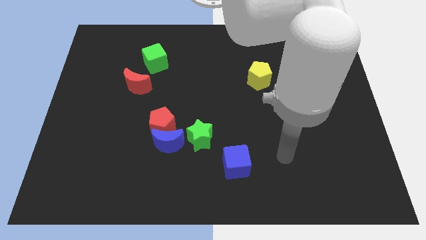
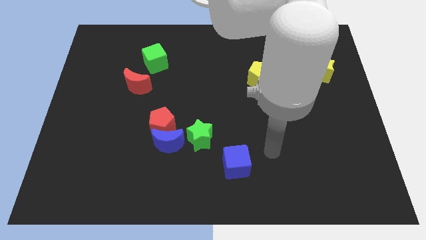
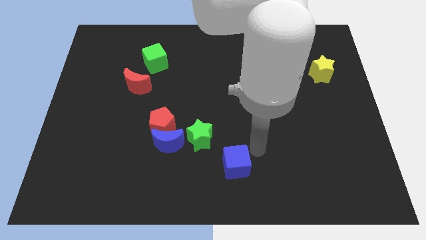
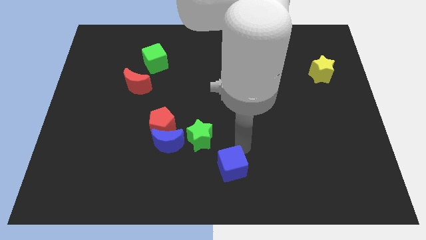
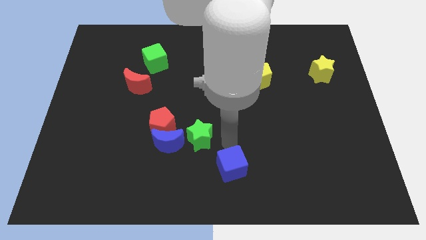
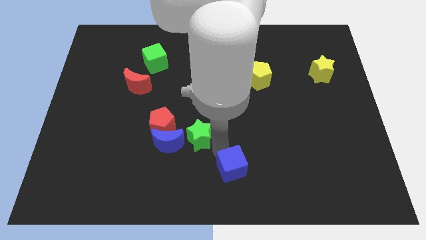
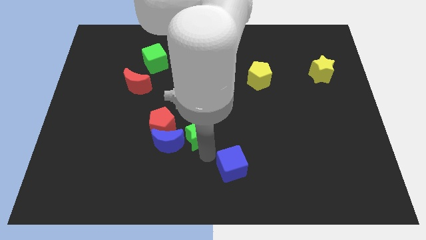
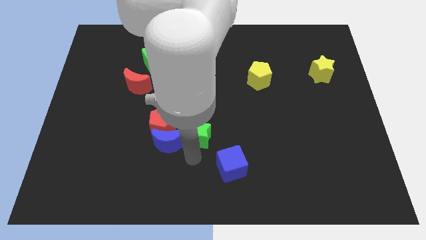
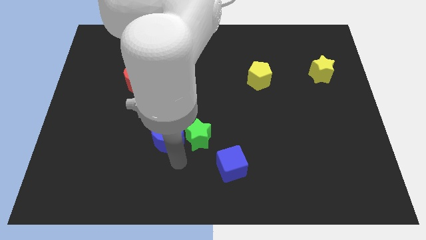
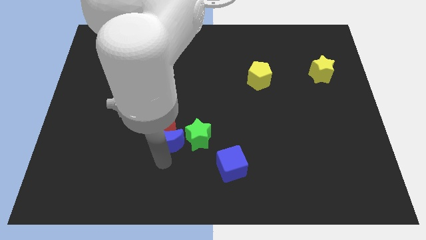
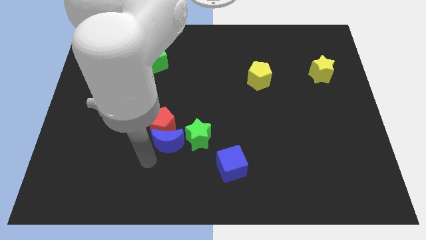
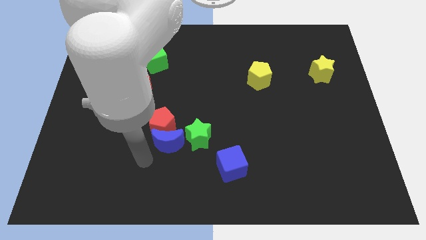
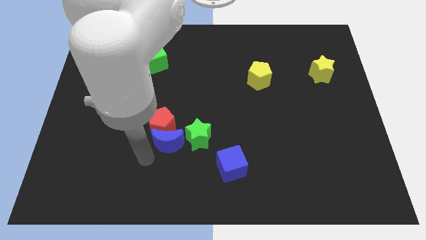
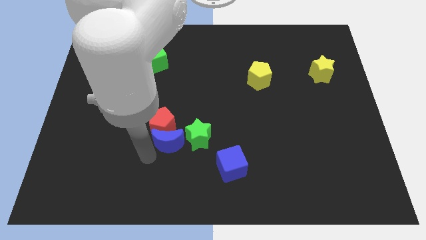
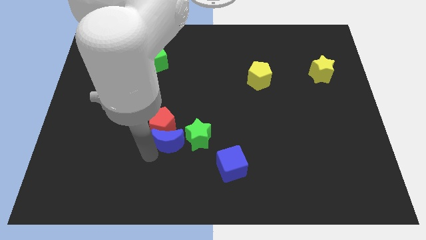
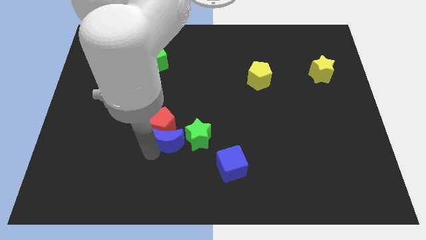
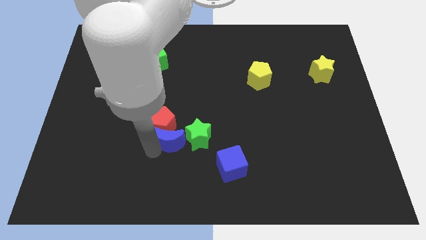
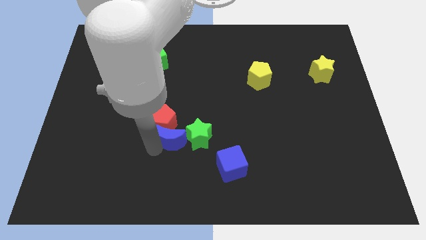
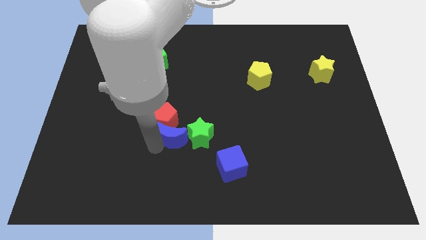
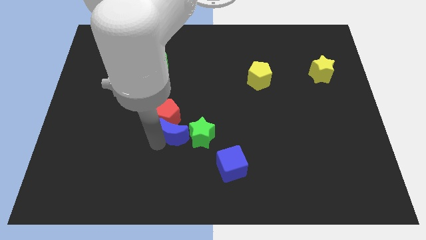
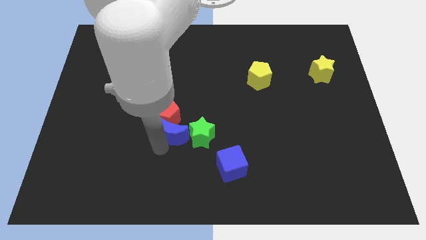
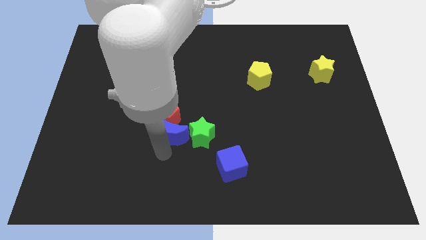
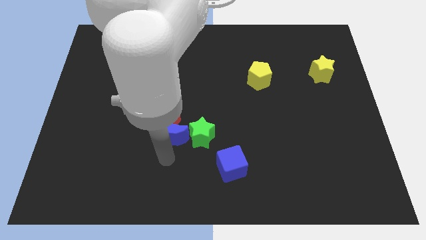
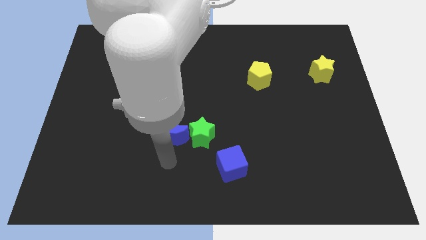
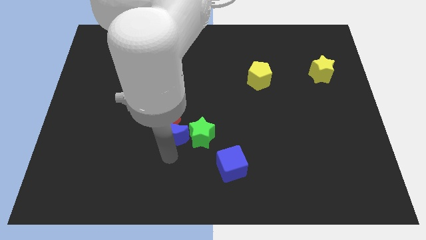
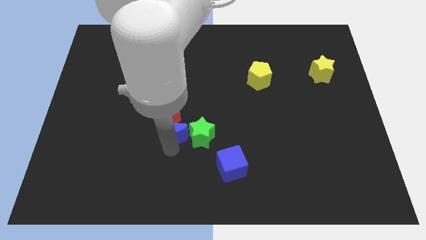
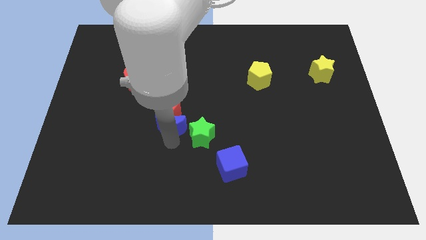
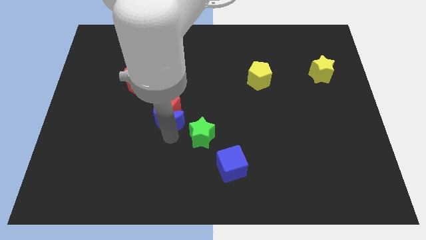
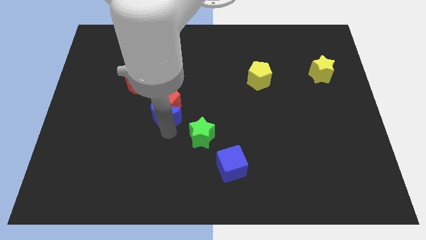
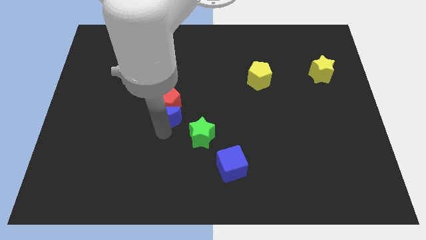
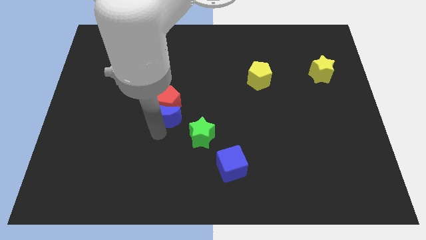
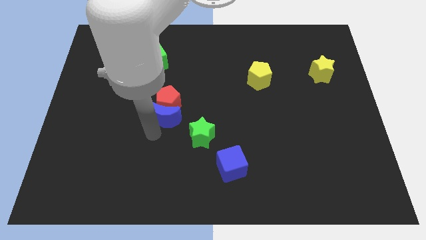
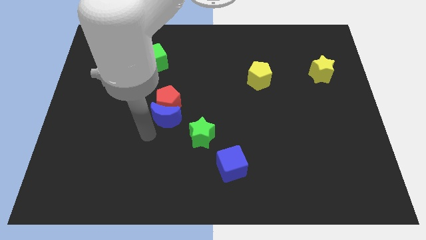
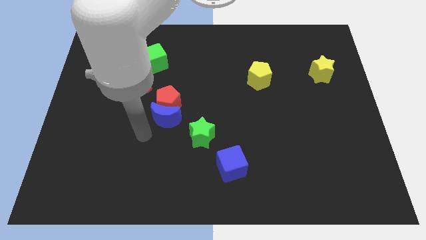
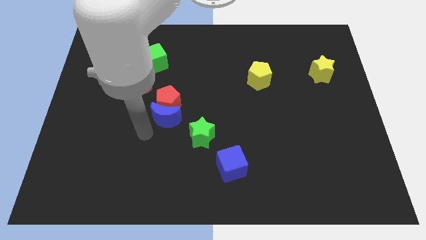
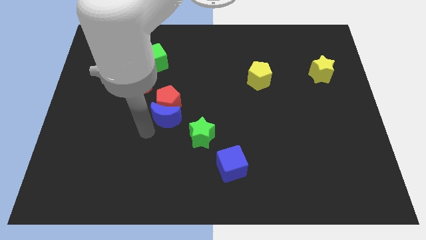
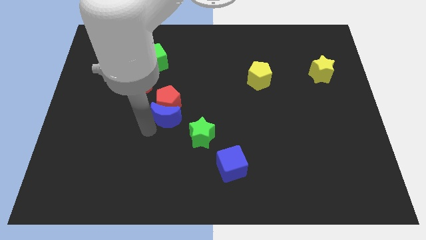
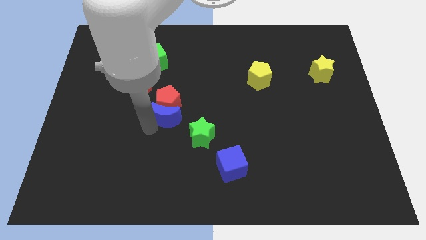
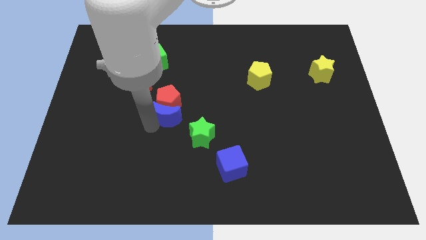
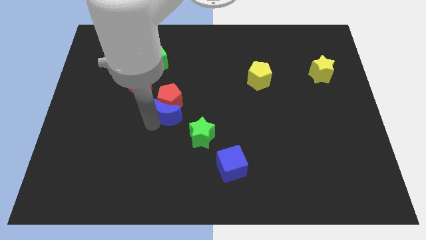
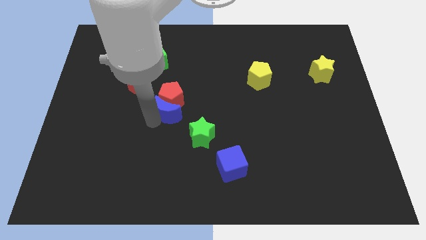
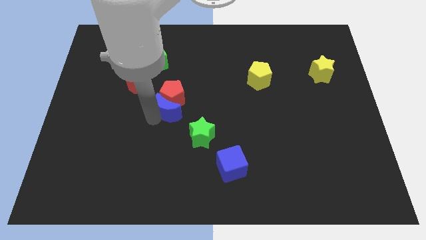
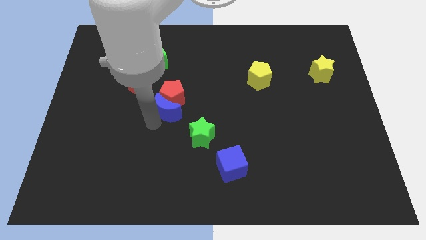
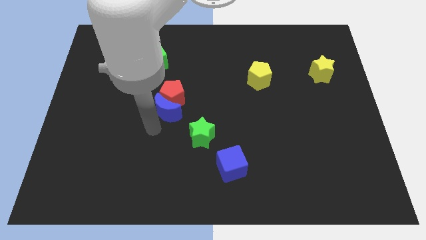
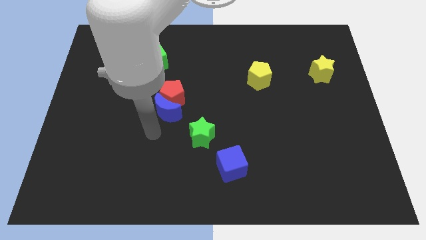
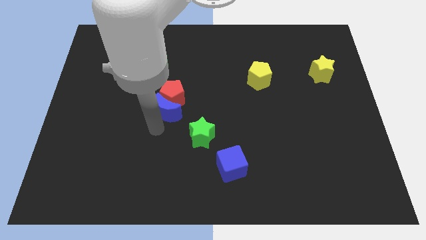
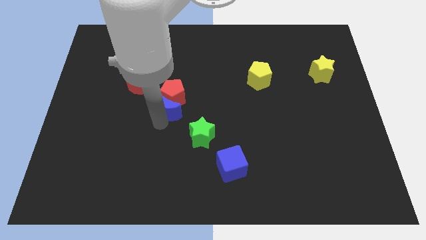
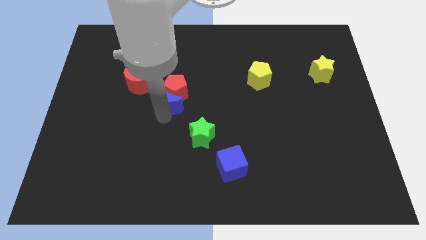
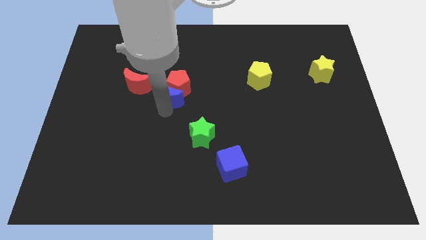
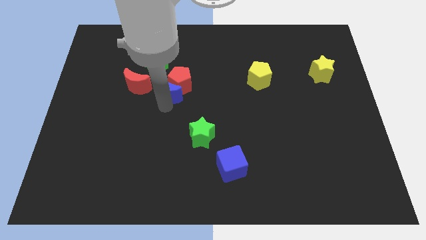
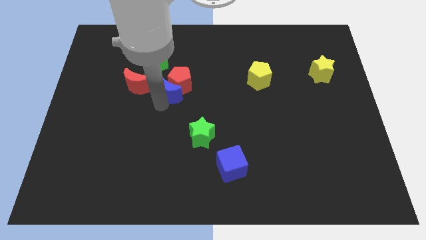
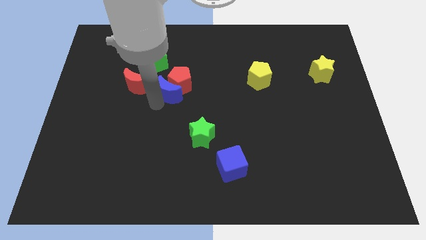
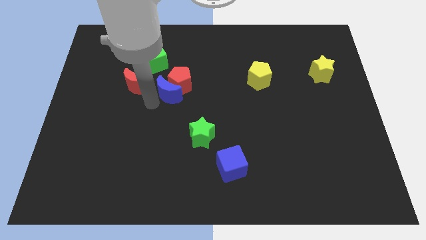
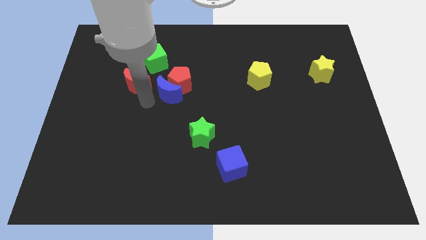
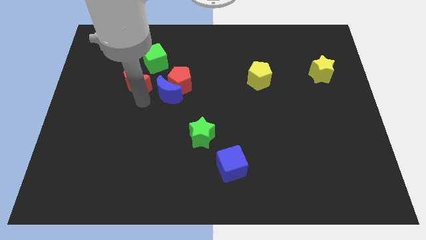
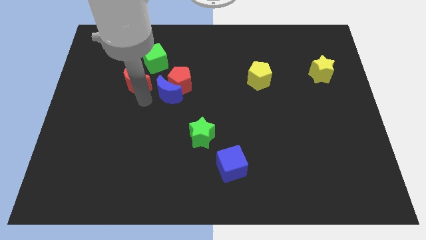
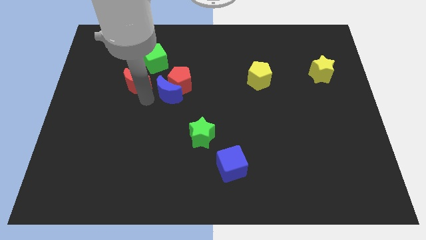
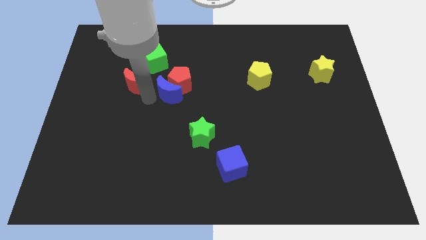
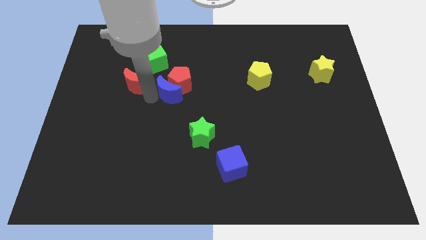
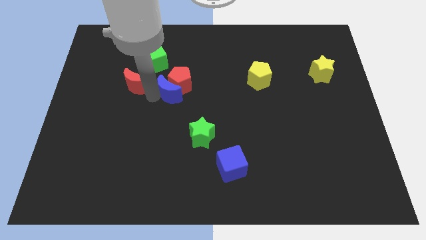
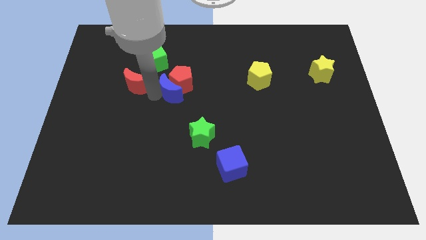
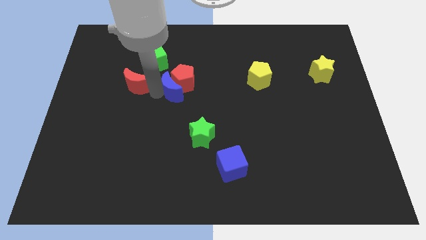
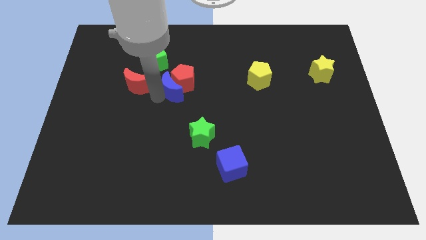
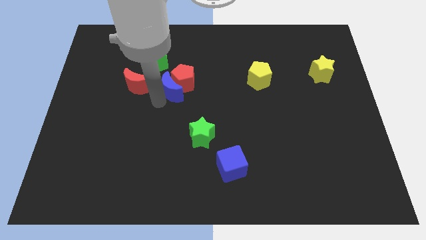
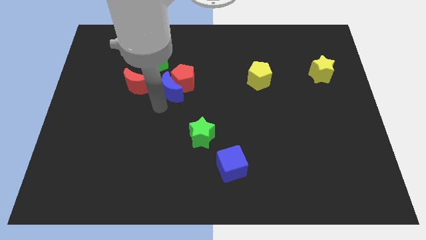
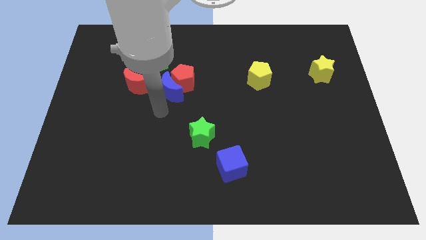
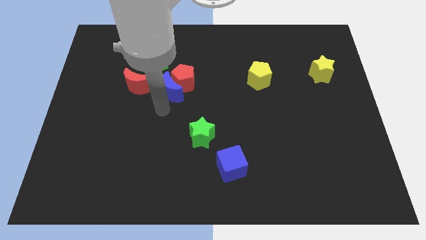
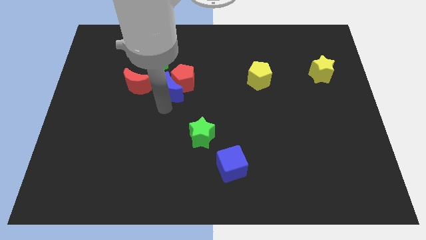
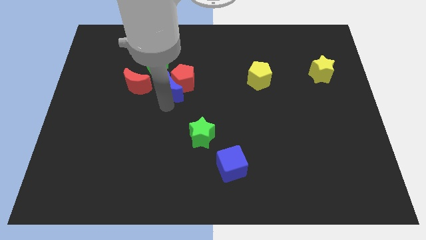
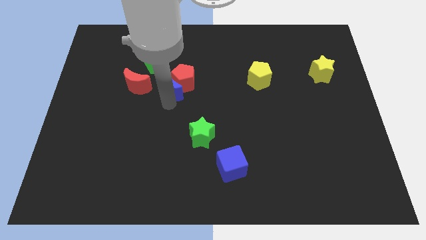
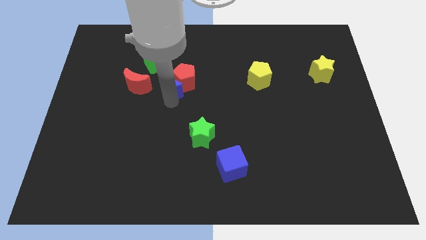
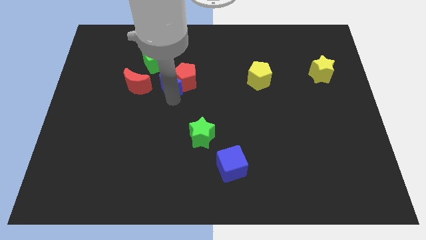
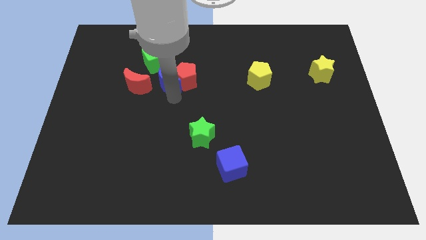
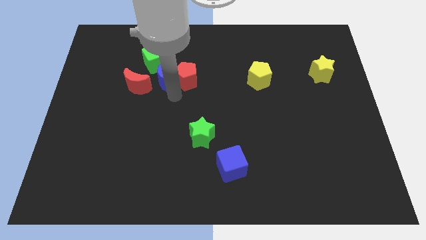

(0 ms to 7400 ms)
put the blue moon diagonally up and to the right of the red moon
